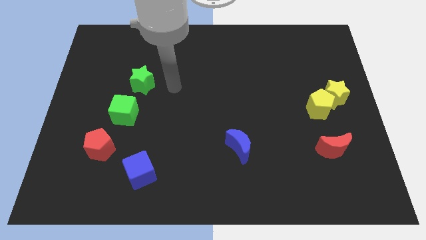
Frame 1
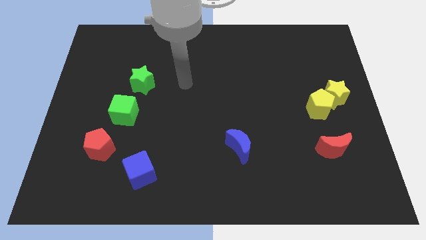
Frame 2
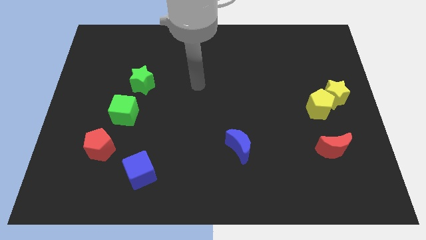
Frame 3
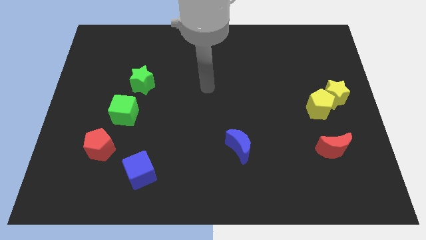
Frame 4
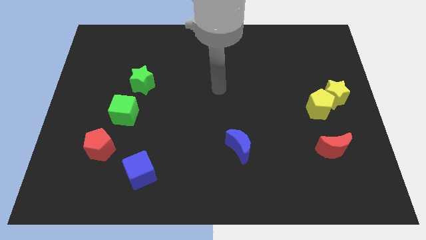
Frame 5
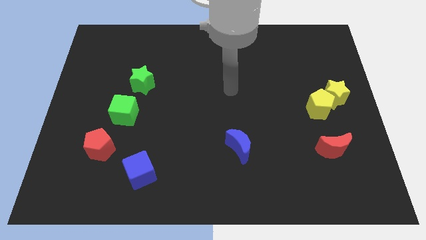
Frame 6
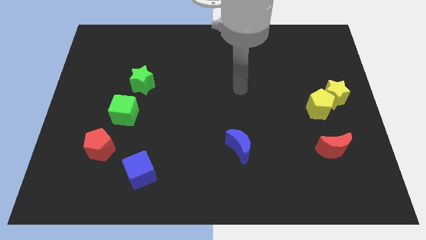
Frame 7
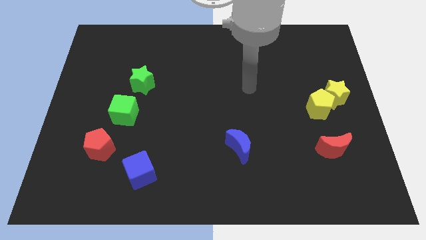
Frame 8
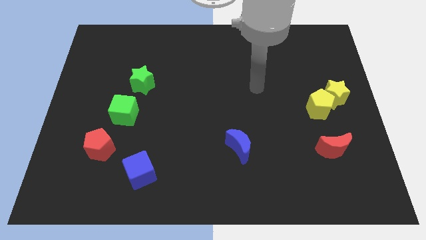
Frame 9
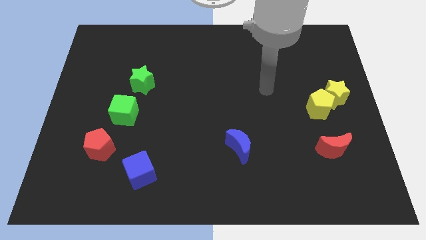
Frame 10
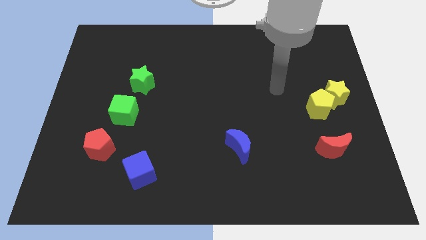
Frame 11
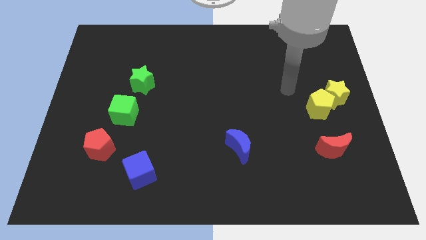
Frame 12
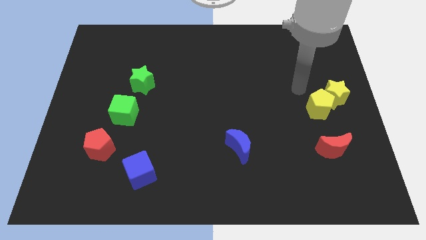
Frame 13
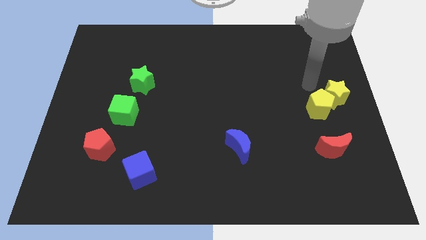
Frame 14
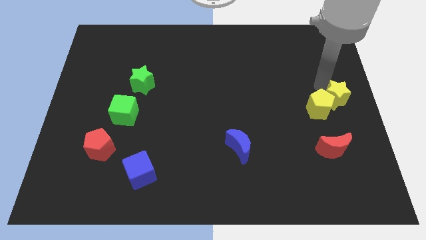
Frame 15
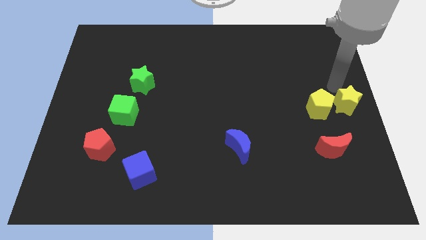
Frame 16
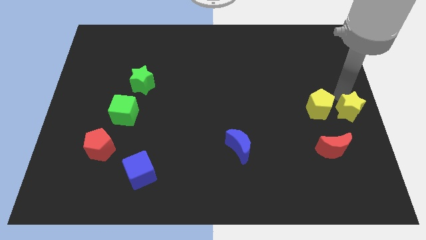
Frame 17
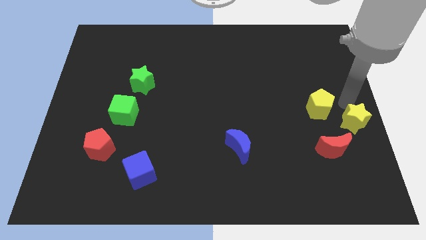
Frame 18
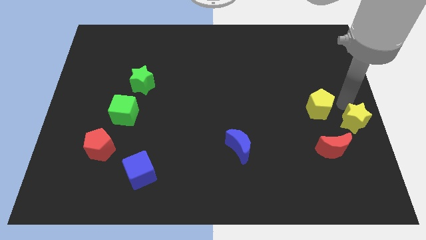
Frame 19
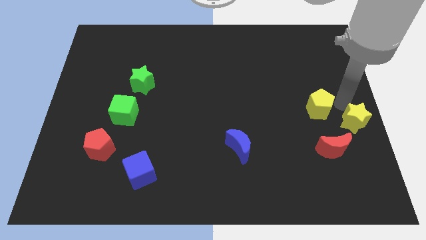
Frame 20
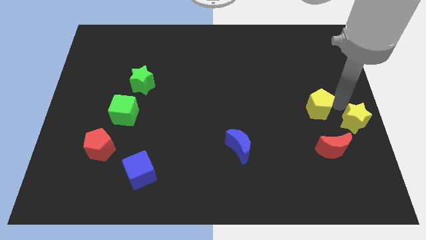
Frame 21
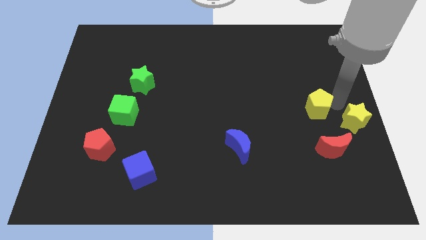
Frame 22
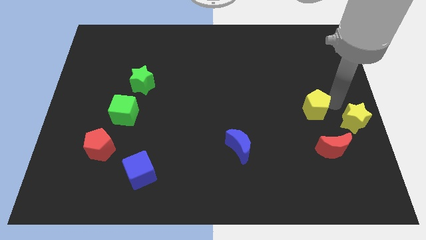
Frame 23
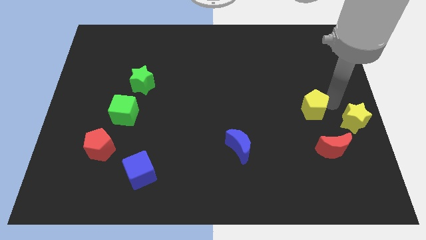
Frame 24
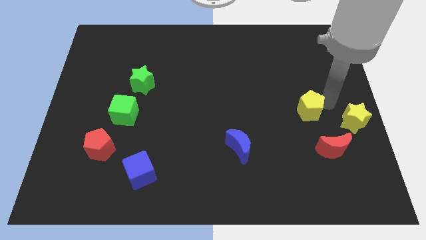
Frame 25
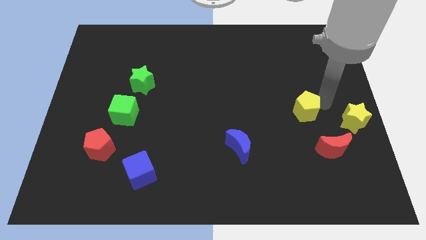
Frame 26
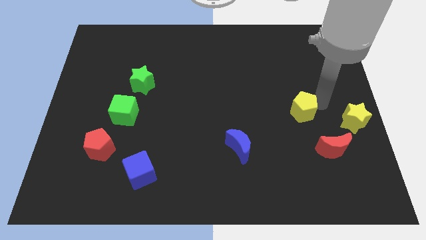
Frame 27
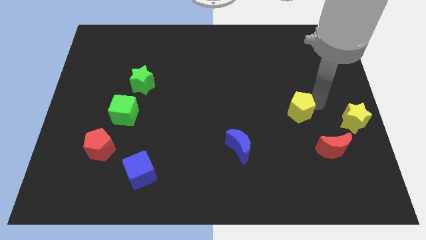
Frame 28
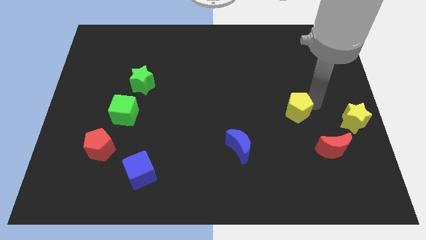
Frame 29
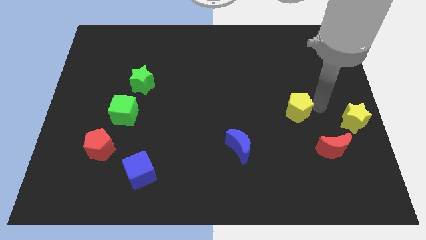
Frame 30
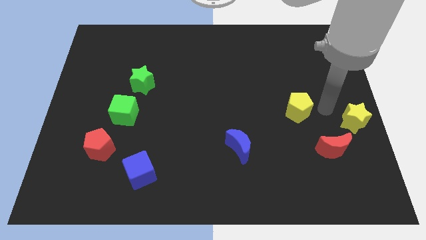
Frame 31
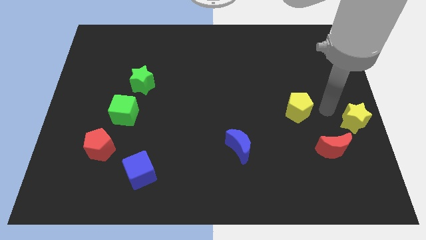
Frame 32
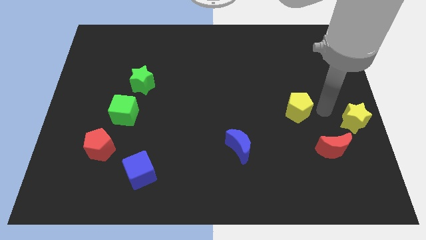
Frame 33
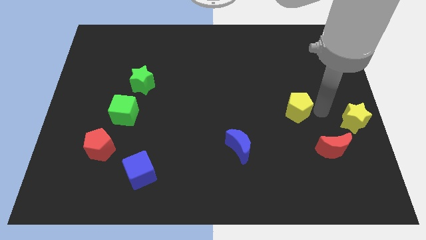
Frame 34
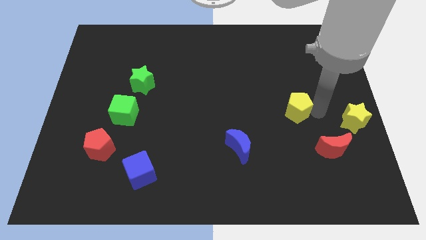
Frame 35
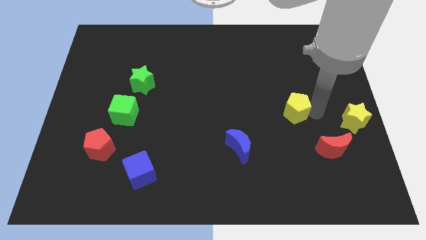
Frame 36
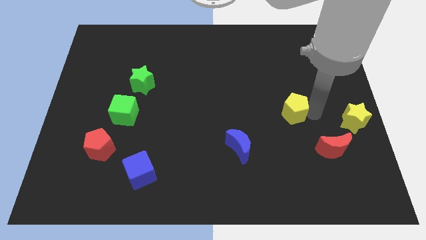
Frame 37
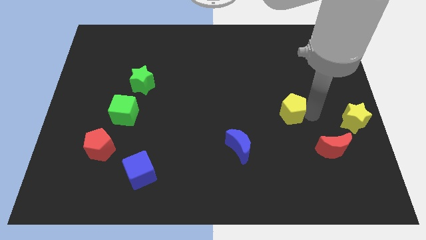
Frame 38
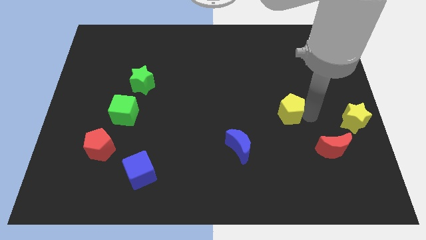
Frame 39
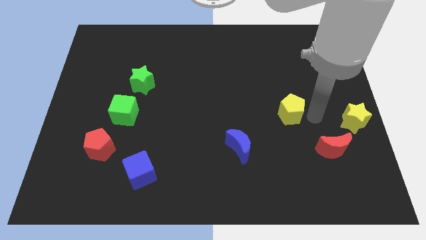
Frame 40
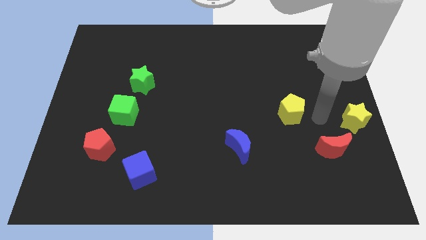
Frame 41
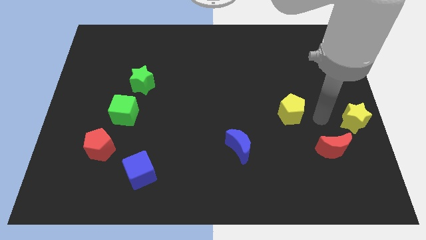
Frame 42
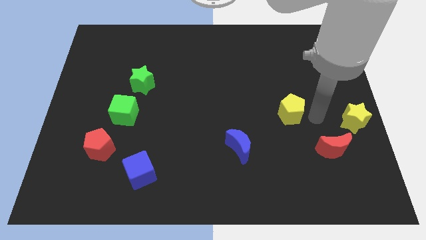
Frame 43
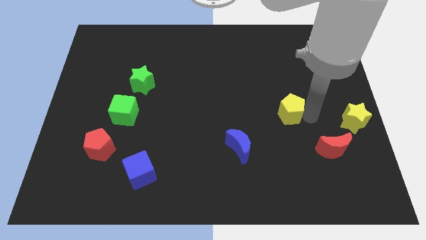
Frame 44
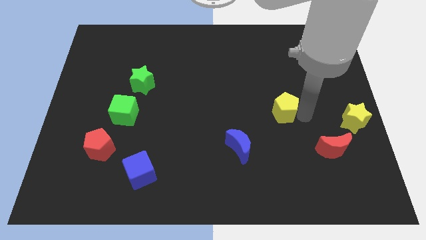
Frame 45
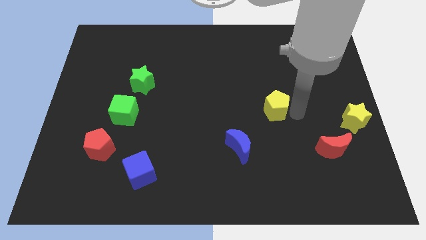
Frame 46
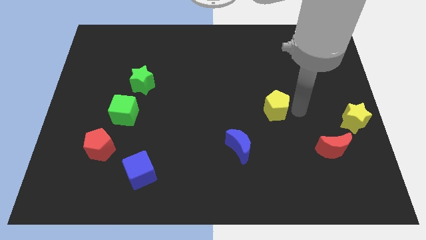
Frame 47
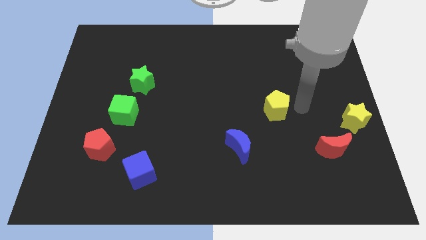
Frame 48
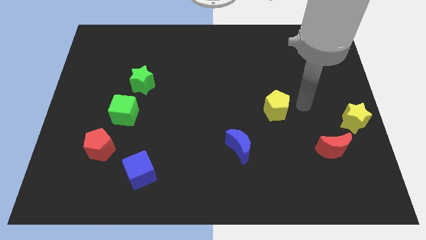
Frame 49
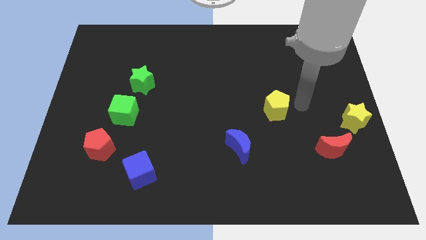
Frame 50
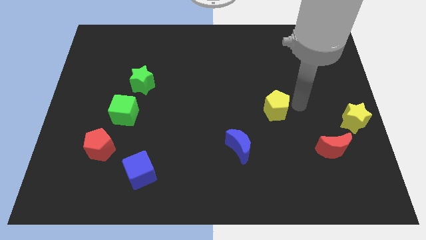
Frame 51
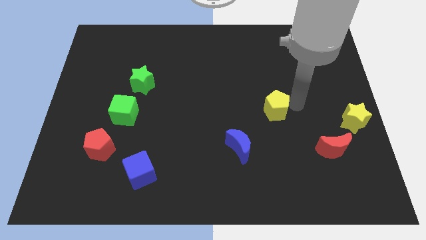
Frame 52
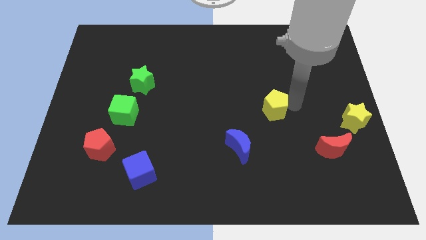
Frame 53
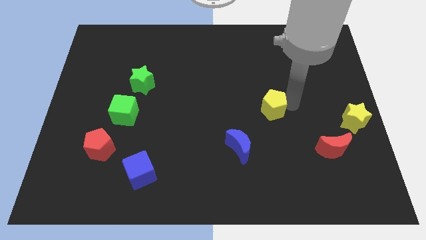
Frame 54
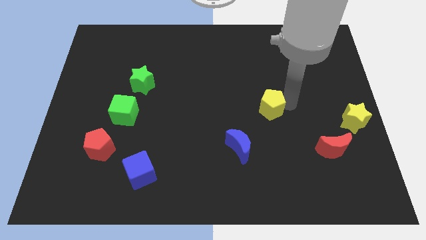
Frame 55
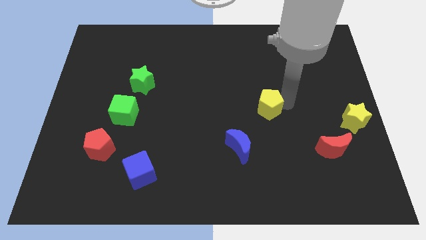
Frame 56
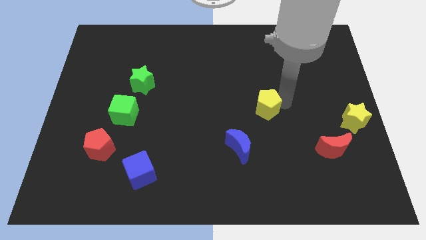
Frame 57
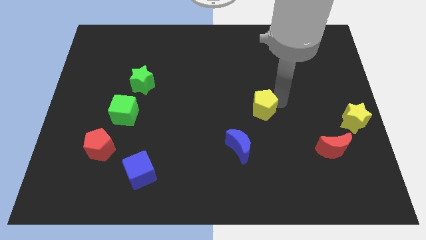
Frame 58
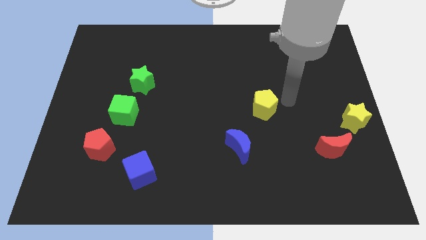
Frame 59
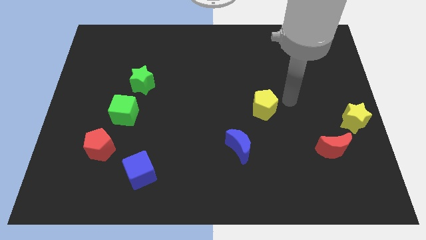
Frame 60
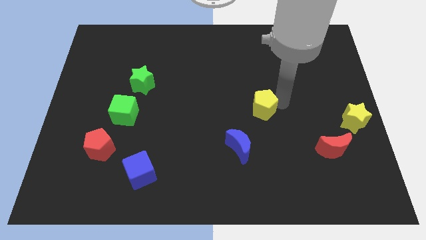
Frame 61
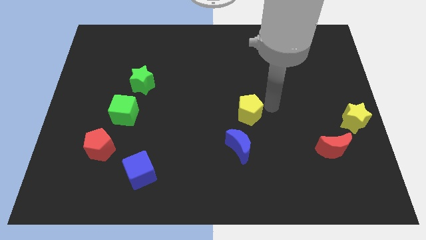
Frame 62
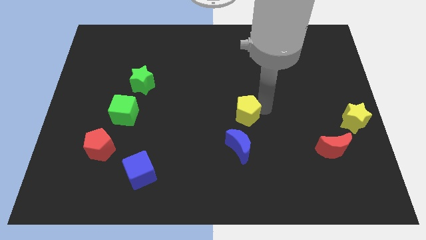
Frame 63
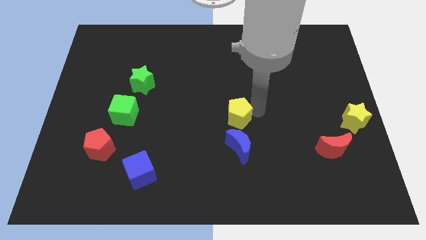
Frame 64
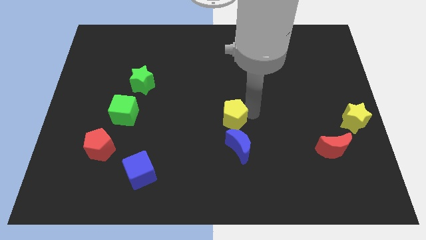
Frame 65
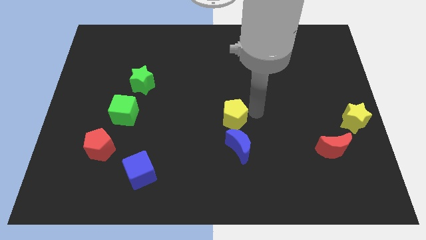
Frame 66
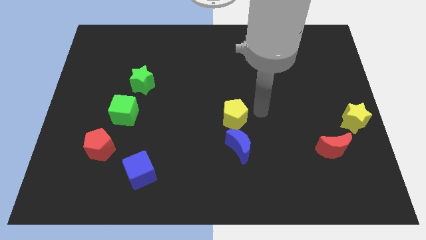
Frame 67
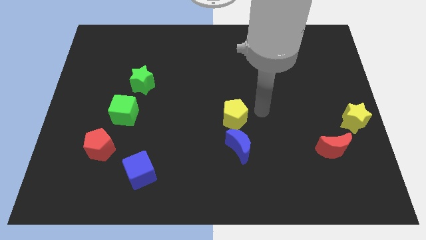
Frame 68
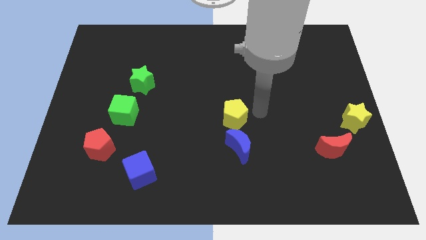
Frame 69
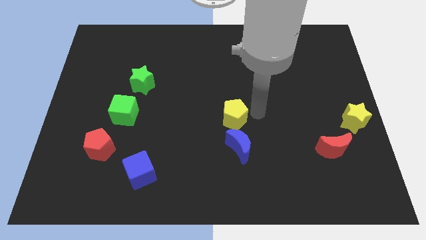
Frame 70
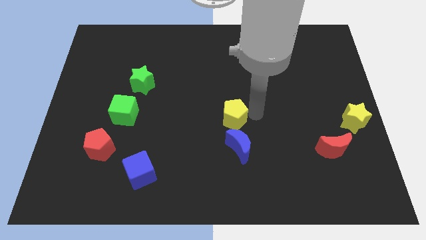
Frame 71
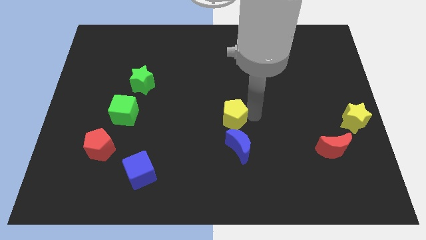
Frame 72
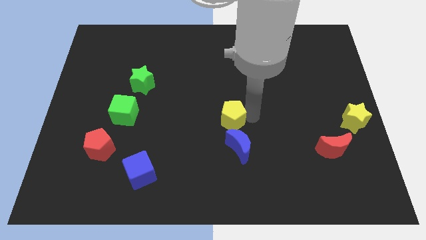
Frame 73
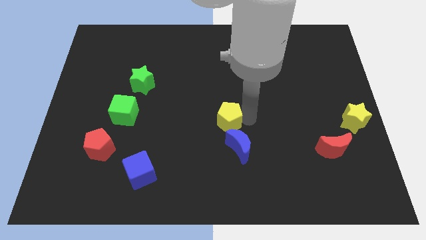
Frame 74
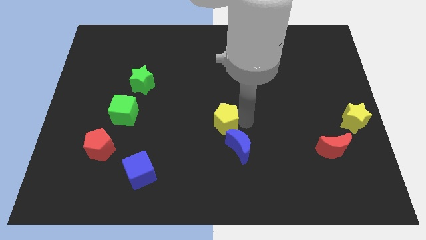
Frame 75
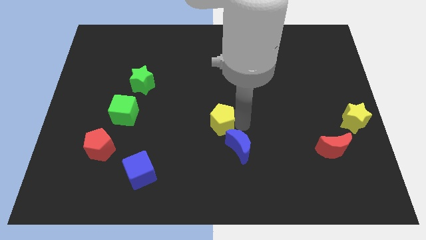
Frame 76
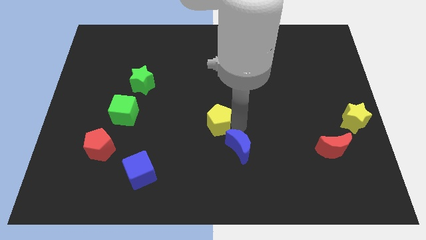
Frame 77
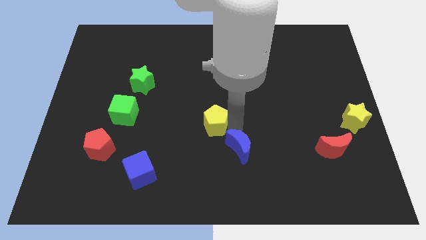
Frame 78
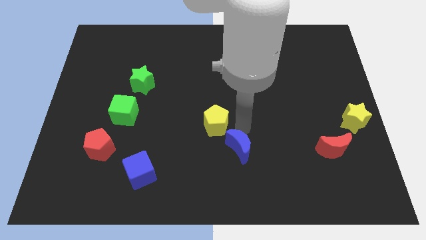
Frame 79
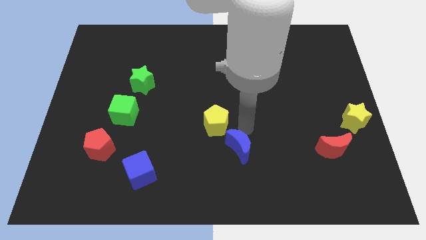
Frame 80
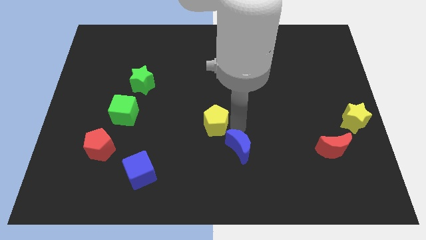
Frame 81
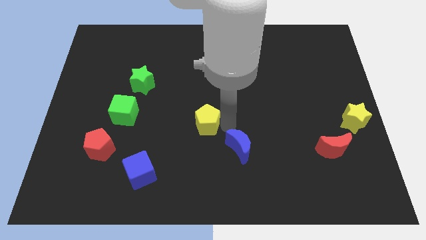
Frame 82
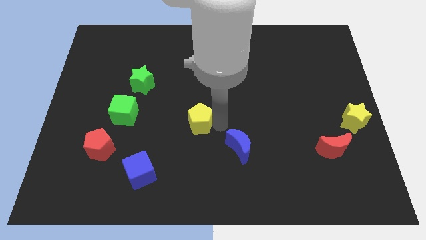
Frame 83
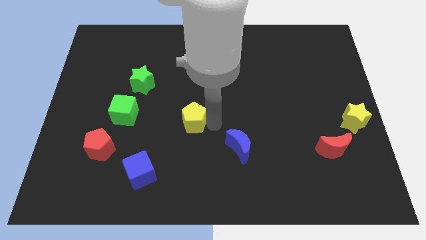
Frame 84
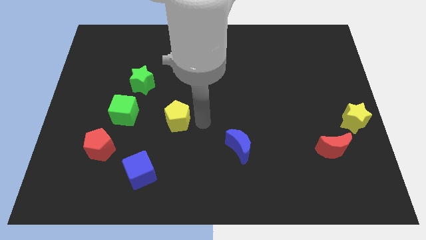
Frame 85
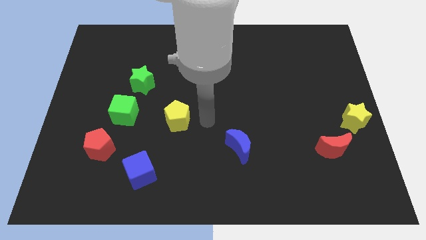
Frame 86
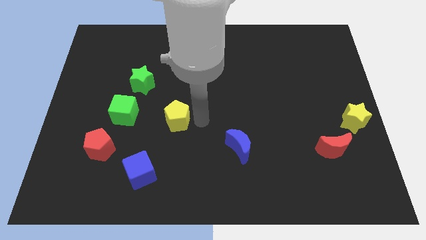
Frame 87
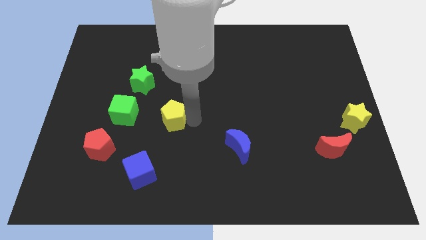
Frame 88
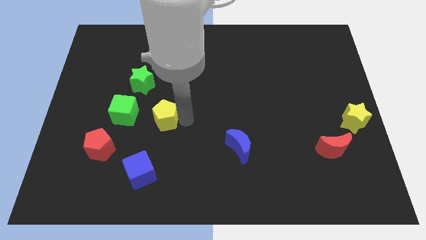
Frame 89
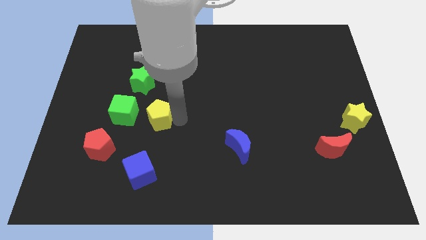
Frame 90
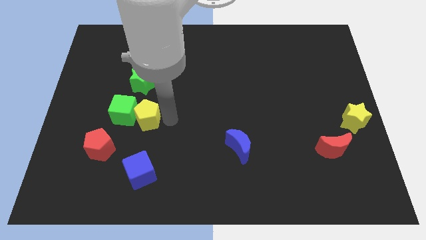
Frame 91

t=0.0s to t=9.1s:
push the yellow pentagon towards the green cube
